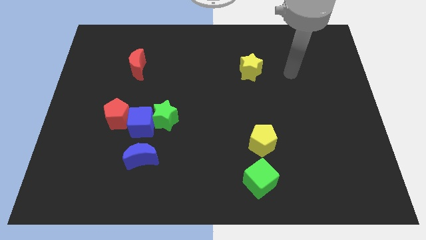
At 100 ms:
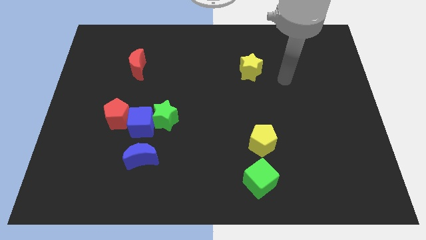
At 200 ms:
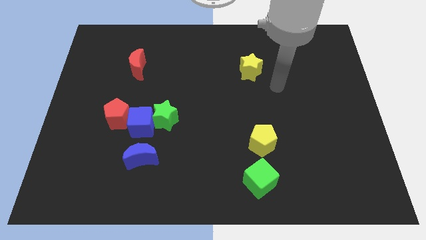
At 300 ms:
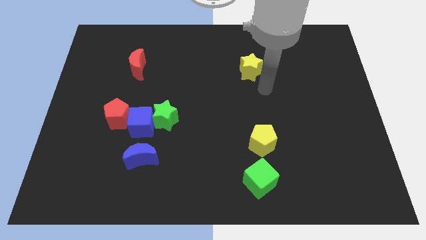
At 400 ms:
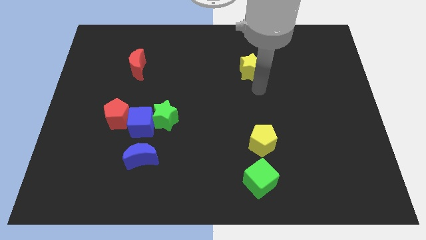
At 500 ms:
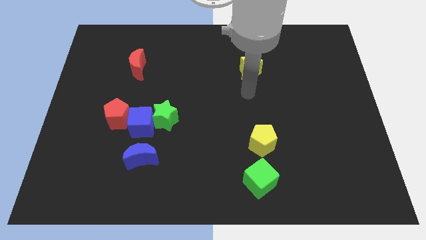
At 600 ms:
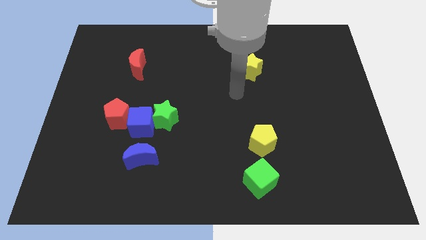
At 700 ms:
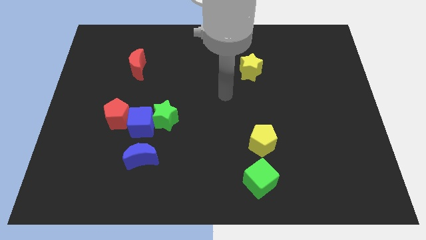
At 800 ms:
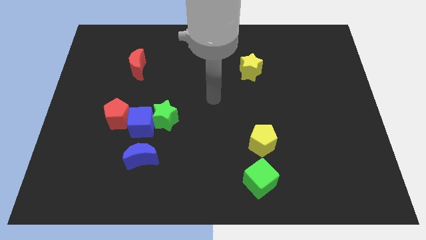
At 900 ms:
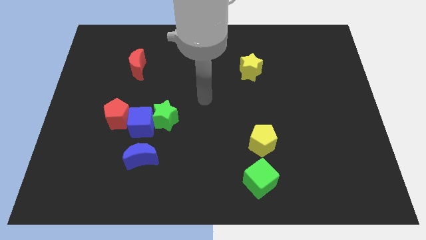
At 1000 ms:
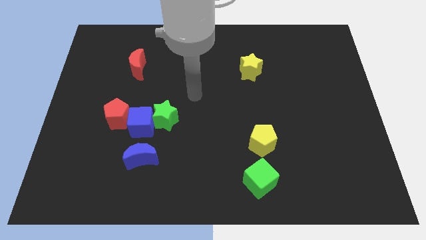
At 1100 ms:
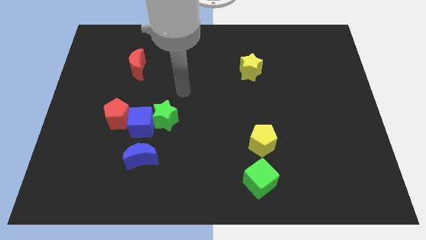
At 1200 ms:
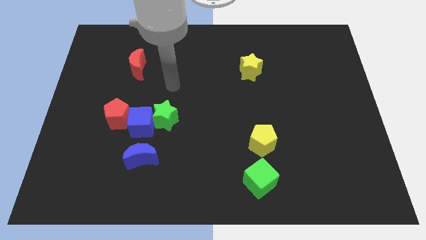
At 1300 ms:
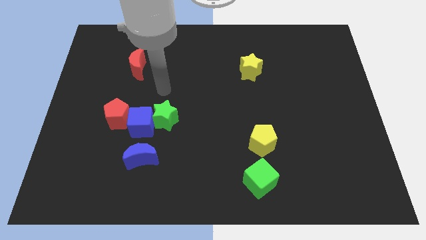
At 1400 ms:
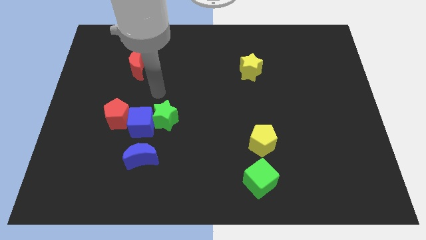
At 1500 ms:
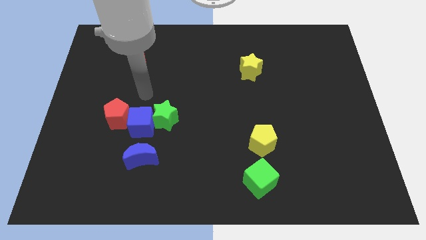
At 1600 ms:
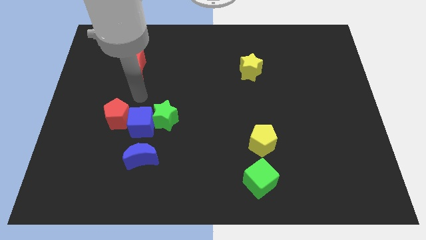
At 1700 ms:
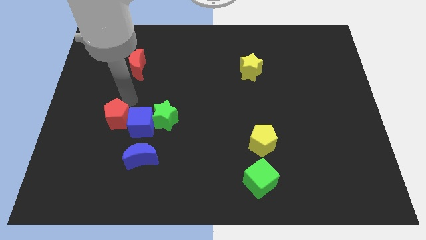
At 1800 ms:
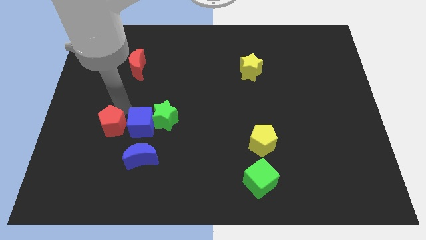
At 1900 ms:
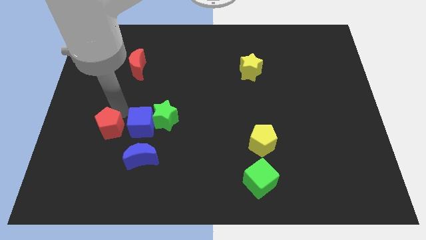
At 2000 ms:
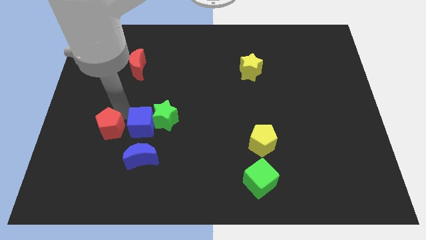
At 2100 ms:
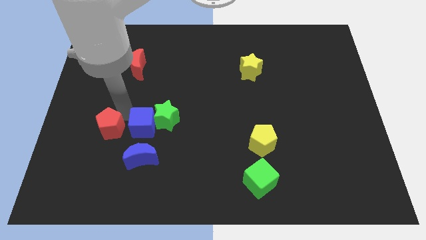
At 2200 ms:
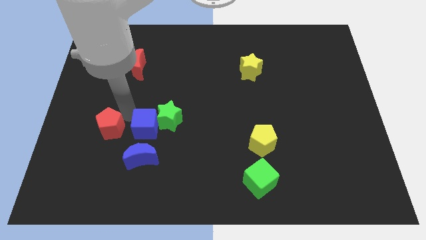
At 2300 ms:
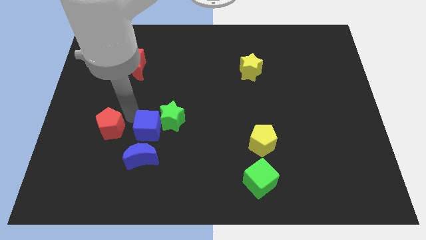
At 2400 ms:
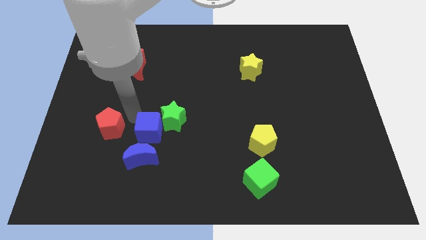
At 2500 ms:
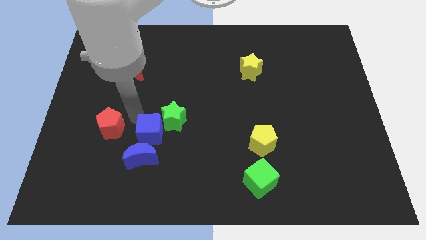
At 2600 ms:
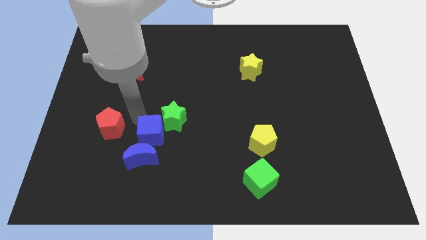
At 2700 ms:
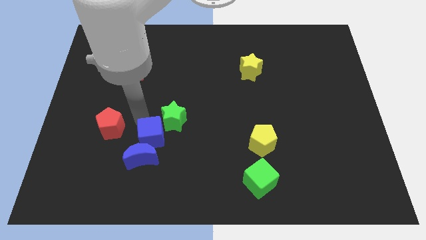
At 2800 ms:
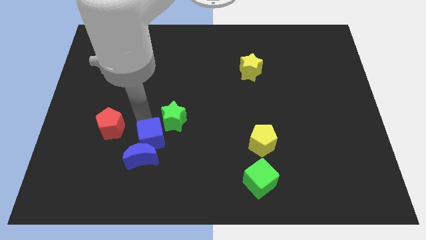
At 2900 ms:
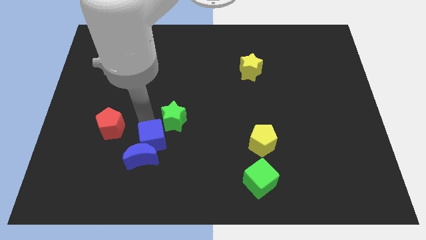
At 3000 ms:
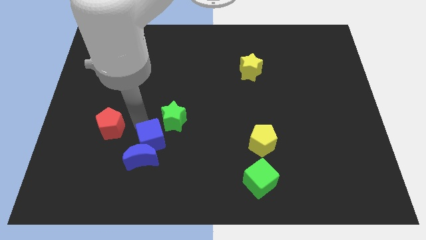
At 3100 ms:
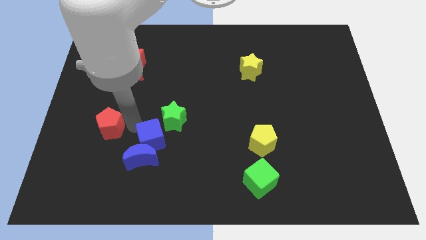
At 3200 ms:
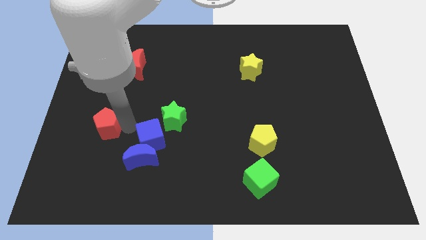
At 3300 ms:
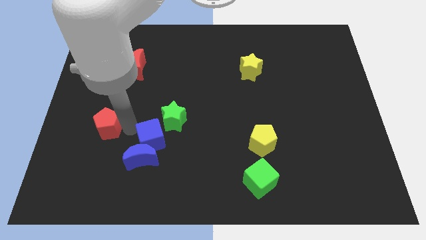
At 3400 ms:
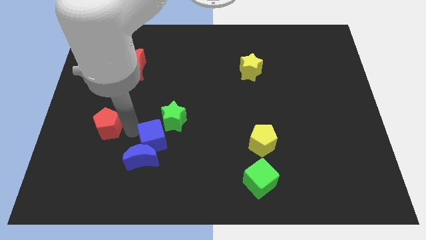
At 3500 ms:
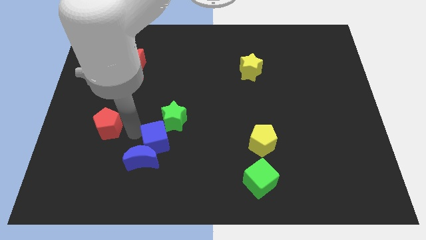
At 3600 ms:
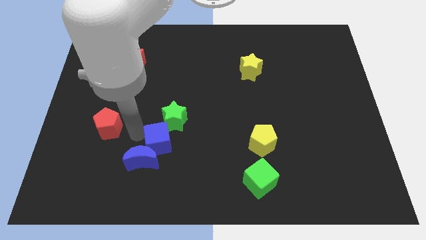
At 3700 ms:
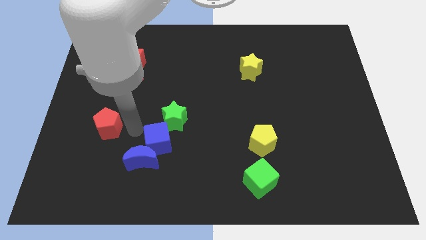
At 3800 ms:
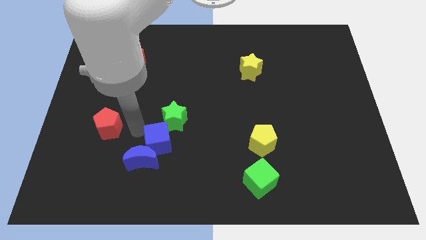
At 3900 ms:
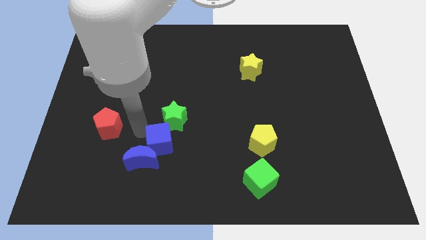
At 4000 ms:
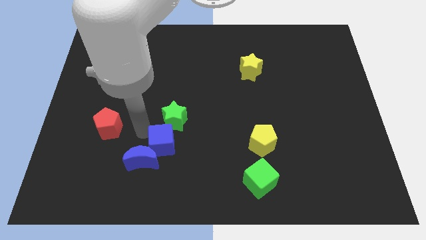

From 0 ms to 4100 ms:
push the blue cube slightly down and then right

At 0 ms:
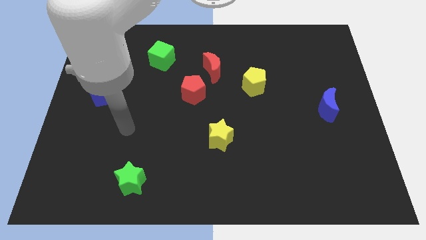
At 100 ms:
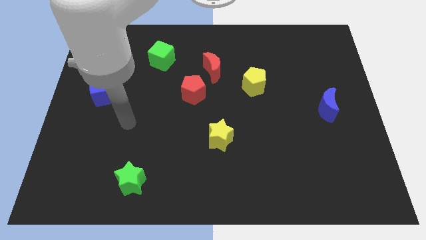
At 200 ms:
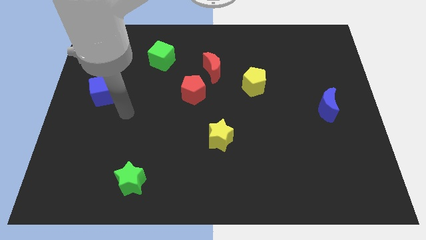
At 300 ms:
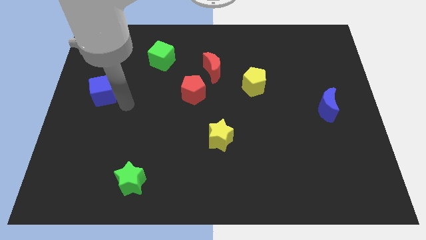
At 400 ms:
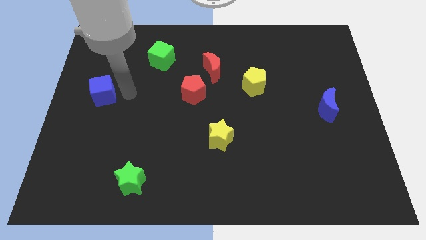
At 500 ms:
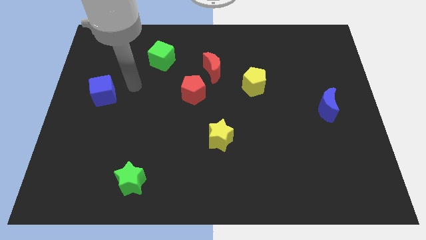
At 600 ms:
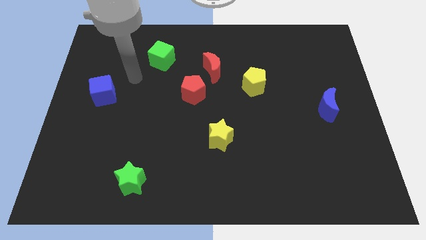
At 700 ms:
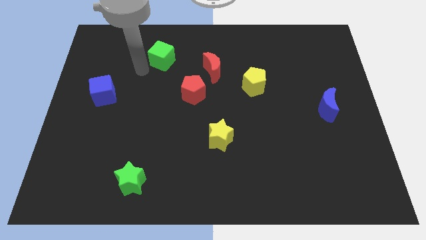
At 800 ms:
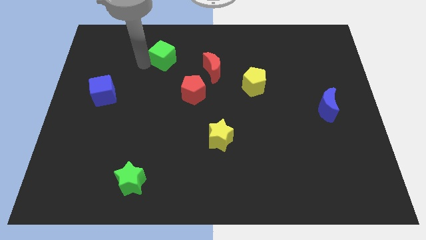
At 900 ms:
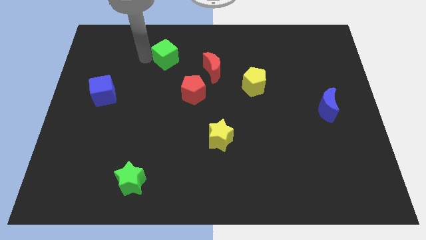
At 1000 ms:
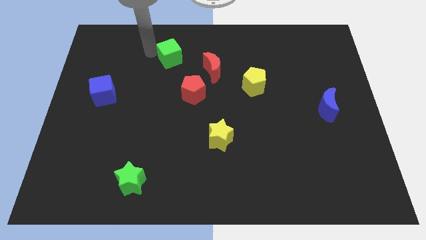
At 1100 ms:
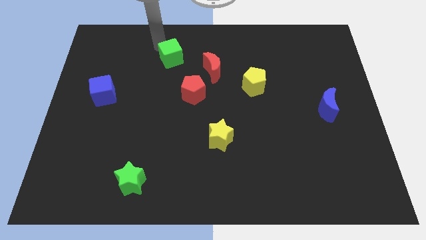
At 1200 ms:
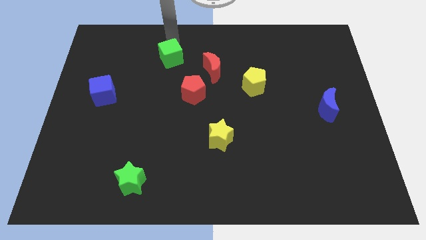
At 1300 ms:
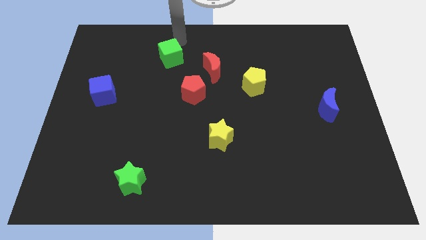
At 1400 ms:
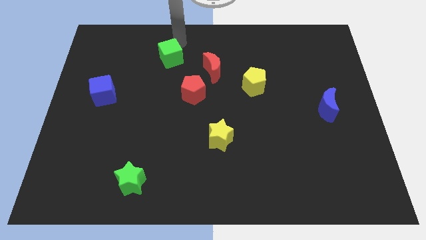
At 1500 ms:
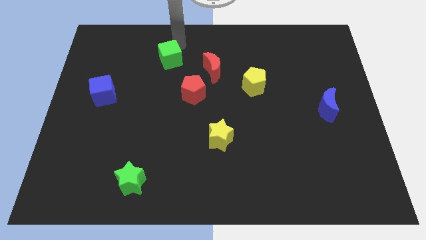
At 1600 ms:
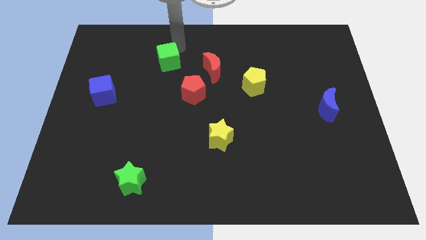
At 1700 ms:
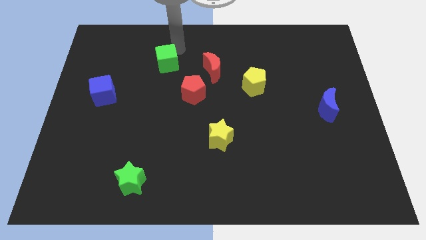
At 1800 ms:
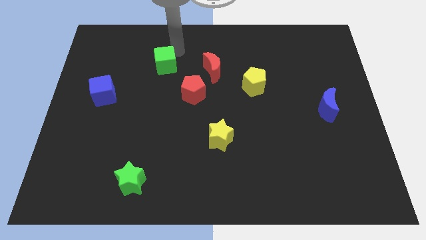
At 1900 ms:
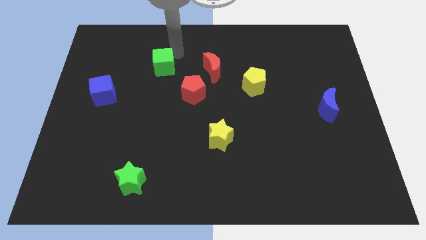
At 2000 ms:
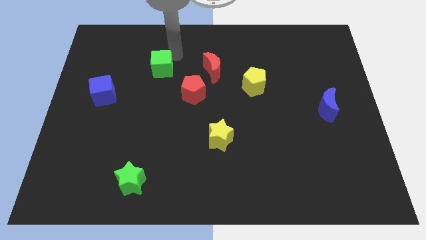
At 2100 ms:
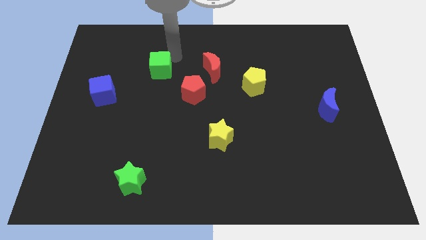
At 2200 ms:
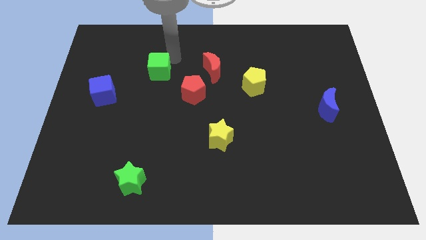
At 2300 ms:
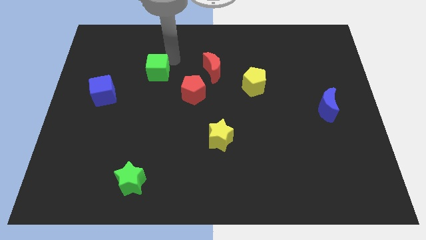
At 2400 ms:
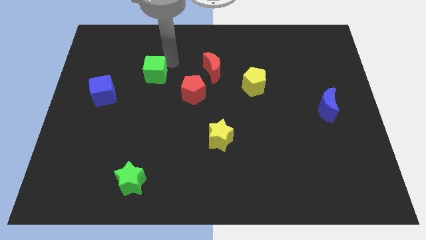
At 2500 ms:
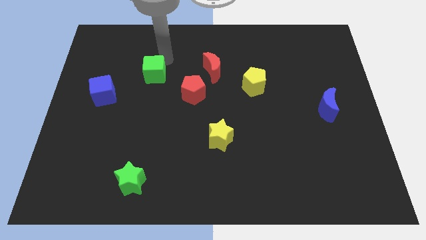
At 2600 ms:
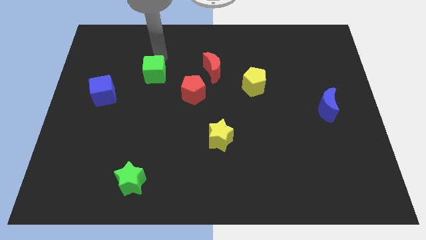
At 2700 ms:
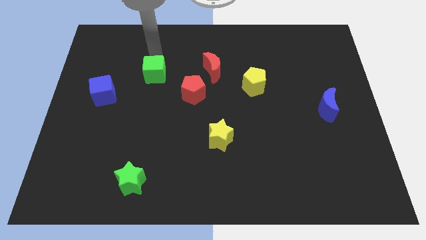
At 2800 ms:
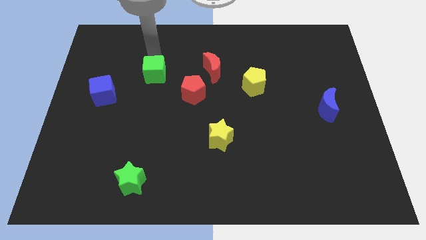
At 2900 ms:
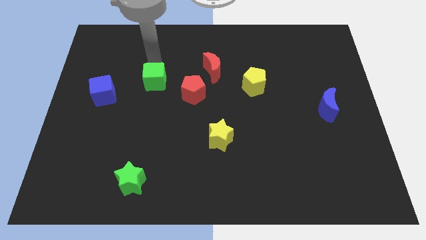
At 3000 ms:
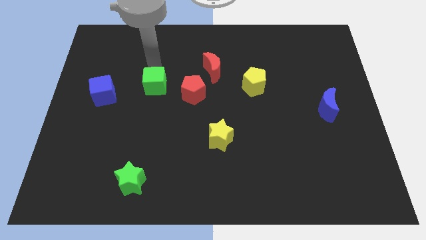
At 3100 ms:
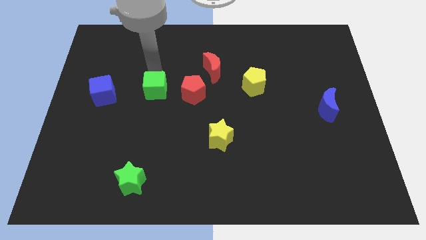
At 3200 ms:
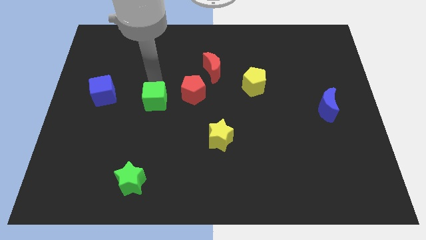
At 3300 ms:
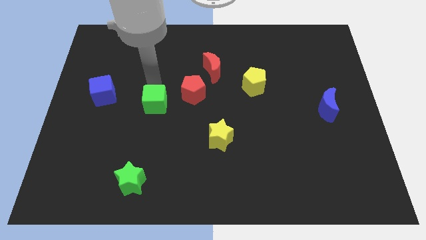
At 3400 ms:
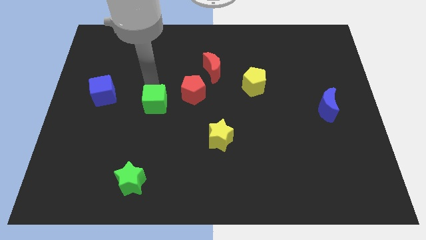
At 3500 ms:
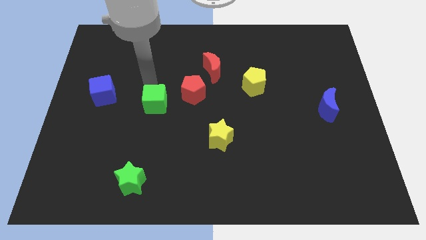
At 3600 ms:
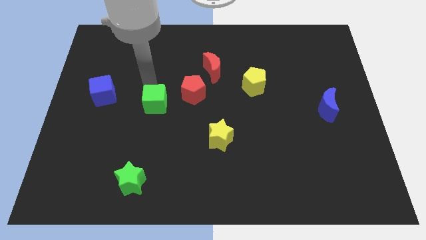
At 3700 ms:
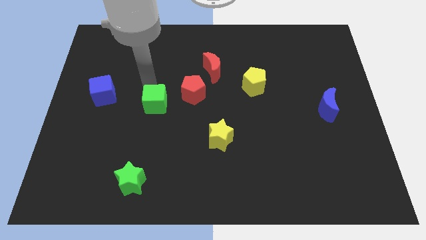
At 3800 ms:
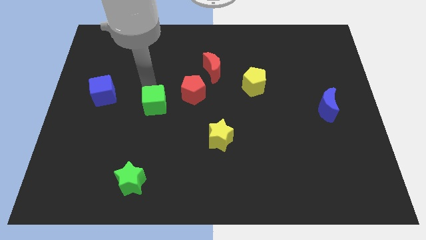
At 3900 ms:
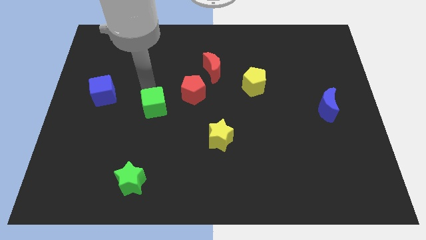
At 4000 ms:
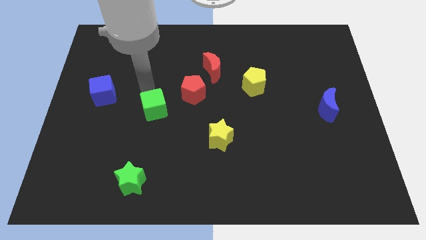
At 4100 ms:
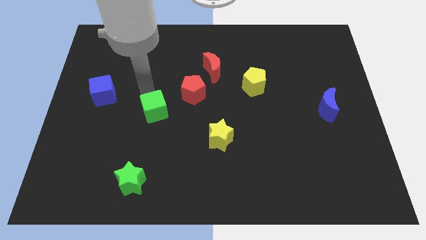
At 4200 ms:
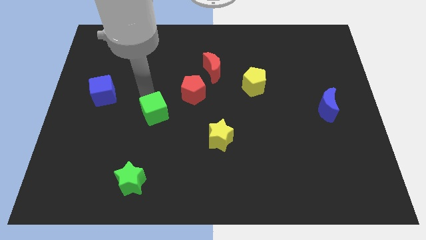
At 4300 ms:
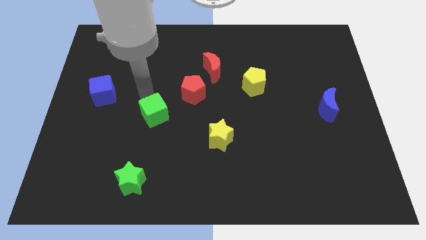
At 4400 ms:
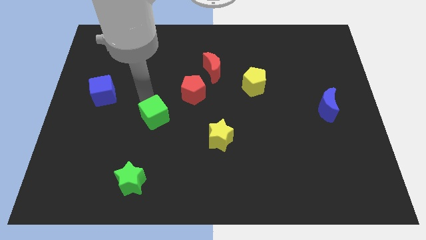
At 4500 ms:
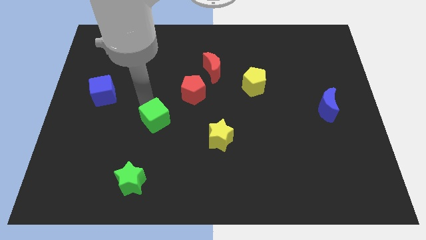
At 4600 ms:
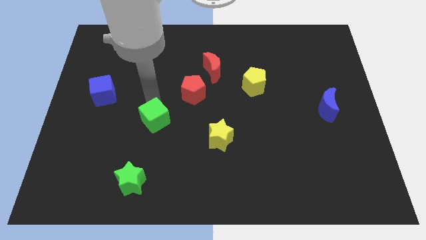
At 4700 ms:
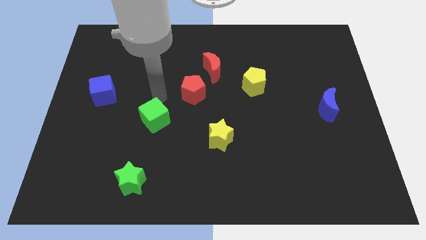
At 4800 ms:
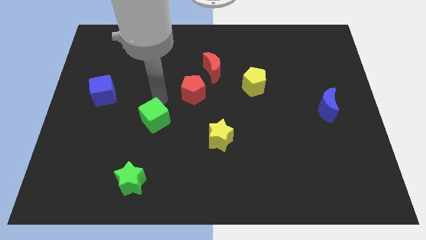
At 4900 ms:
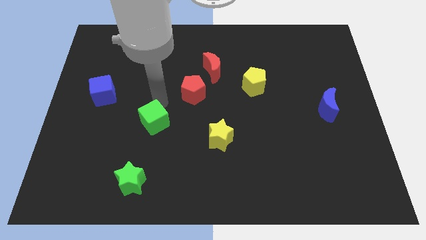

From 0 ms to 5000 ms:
push the green cube down
